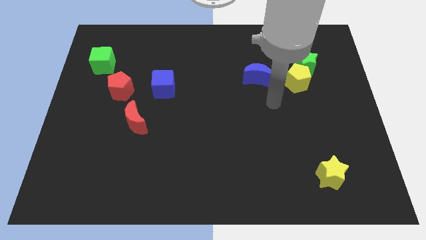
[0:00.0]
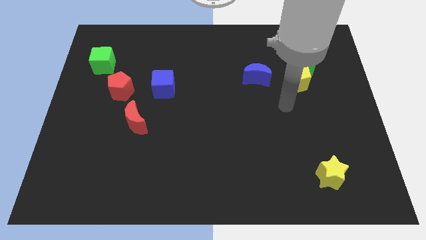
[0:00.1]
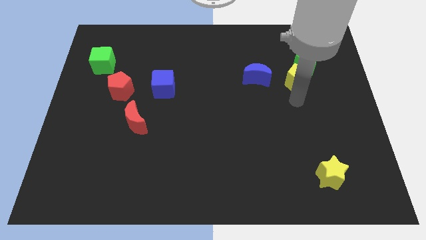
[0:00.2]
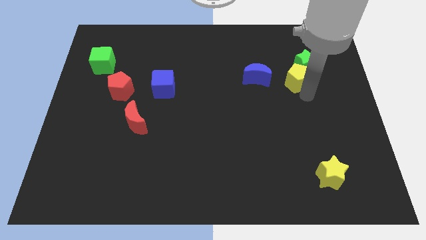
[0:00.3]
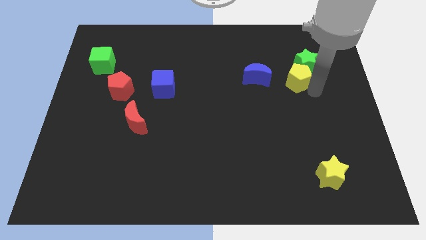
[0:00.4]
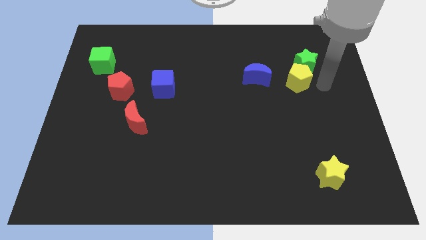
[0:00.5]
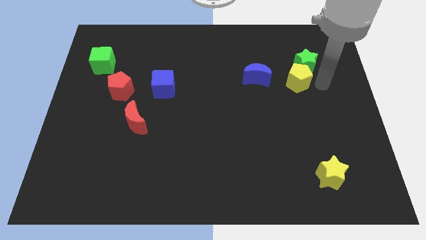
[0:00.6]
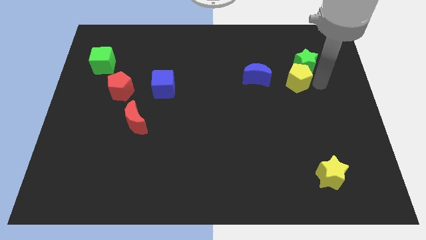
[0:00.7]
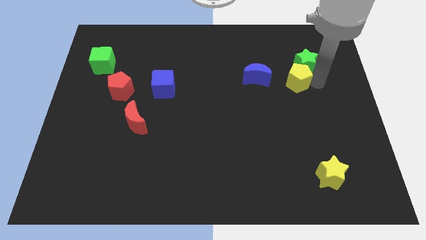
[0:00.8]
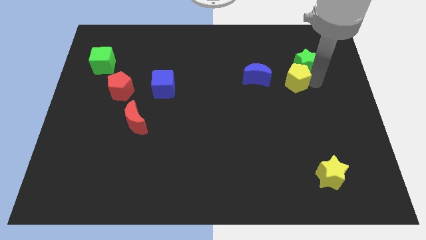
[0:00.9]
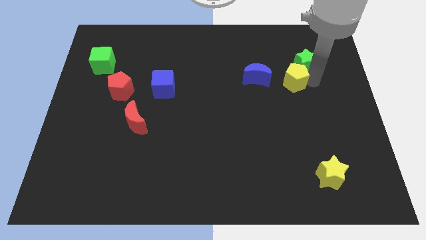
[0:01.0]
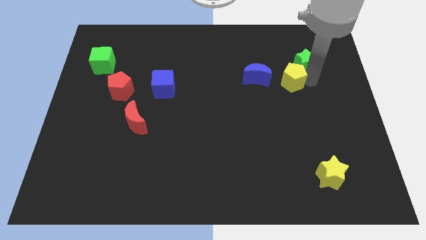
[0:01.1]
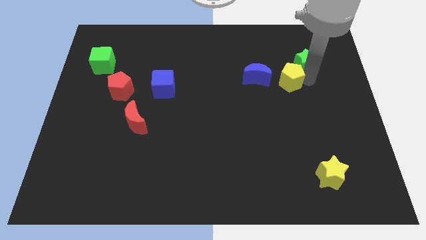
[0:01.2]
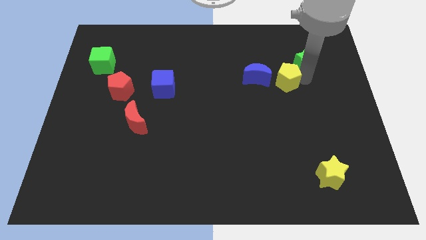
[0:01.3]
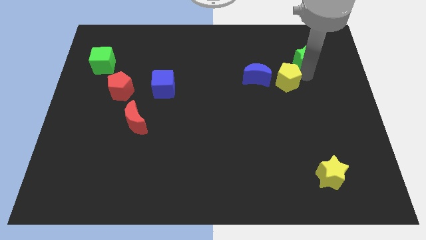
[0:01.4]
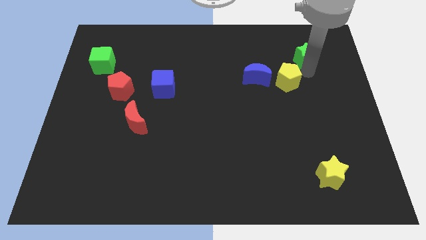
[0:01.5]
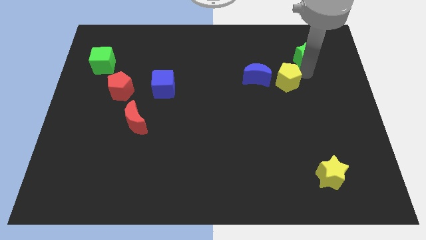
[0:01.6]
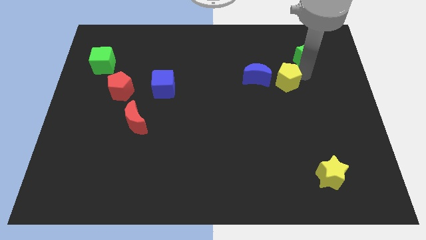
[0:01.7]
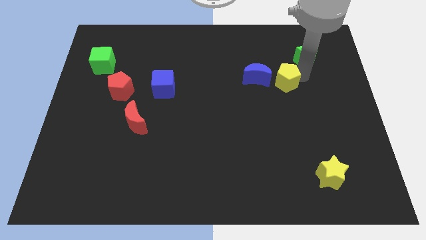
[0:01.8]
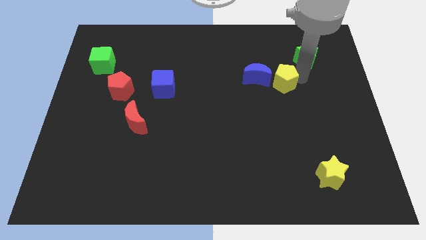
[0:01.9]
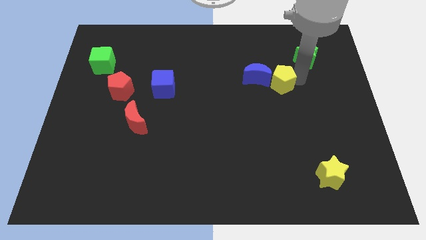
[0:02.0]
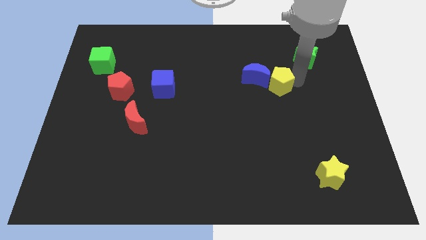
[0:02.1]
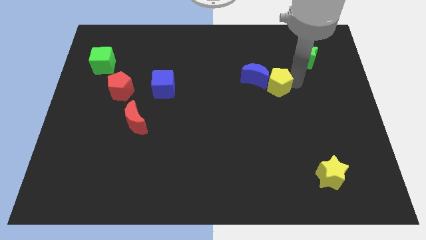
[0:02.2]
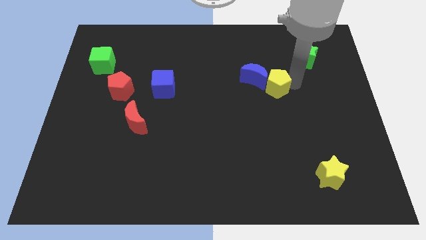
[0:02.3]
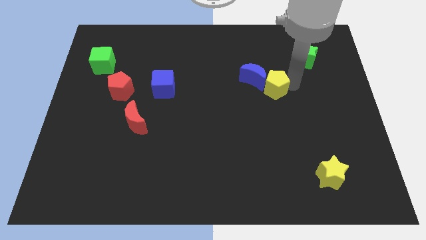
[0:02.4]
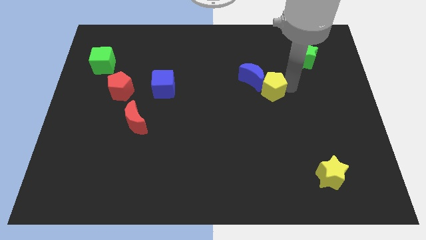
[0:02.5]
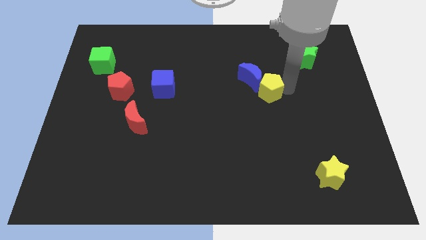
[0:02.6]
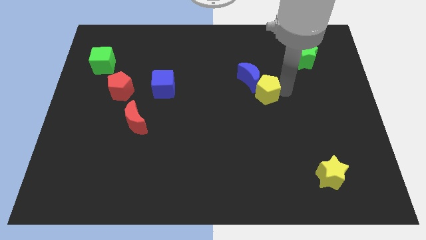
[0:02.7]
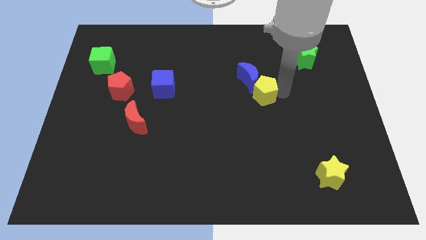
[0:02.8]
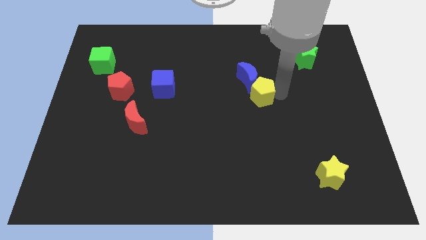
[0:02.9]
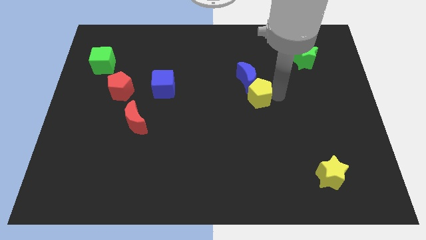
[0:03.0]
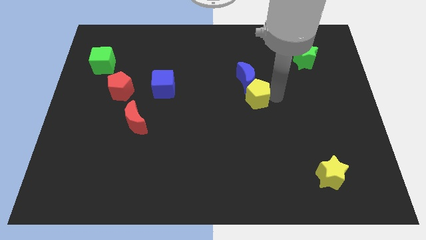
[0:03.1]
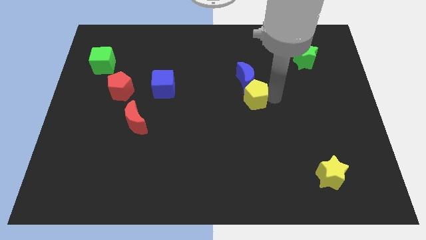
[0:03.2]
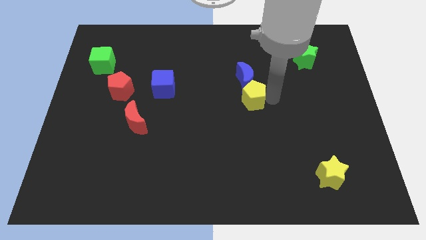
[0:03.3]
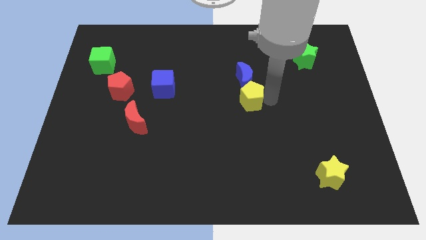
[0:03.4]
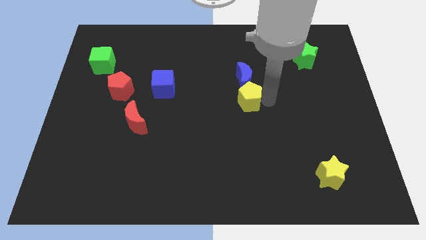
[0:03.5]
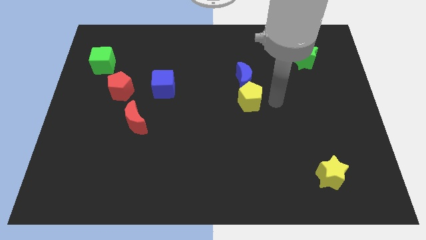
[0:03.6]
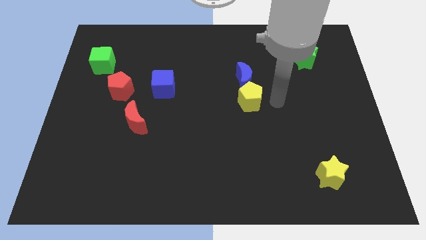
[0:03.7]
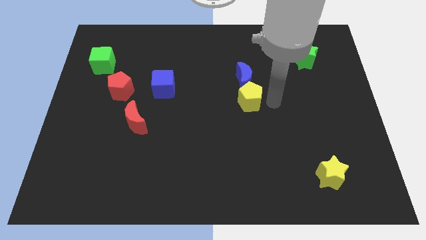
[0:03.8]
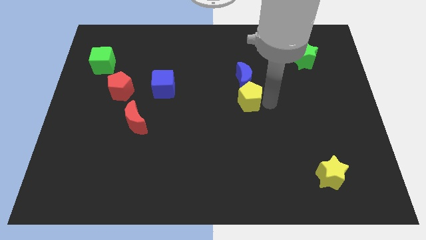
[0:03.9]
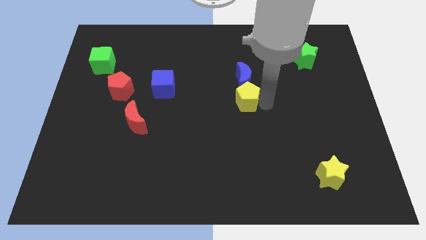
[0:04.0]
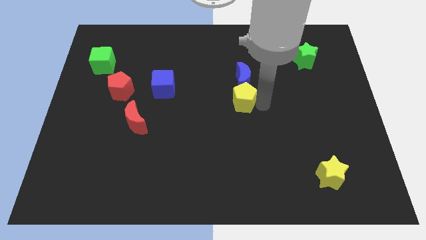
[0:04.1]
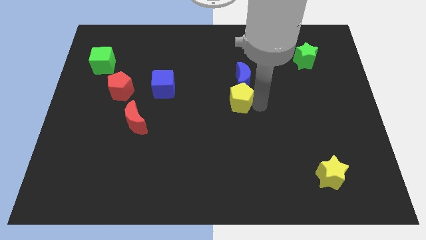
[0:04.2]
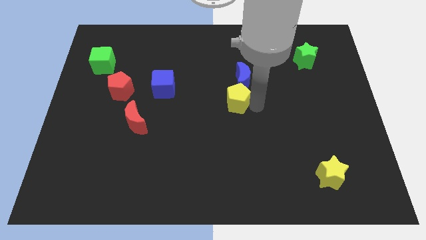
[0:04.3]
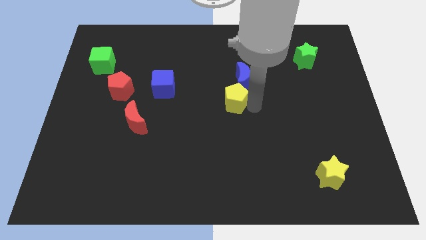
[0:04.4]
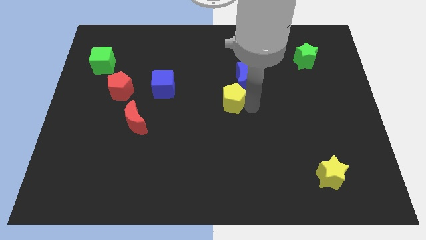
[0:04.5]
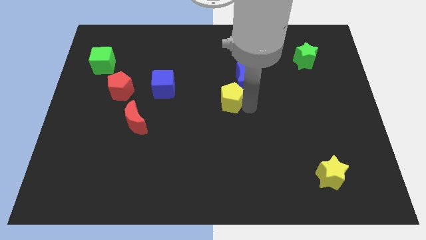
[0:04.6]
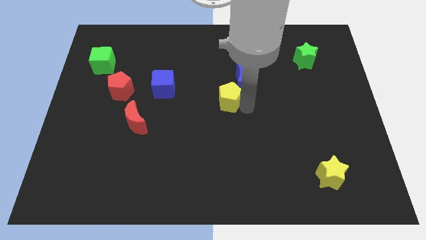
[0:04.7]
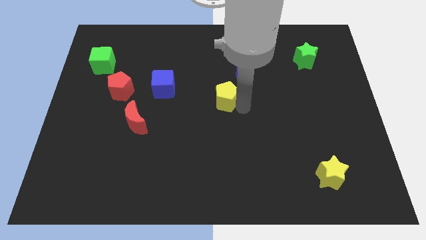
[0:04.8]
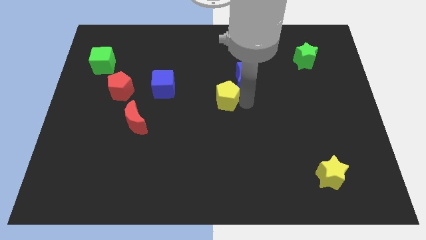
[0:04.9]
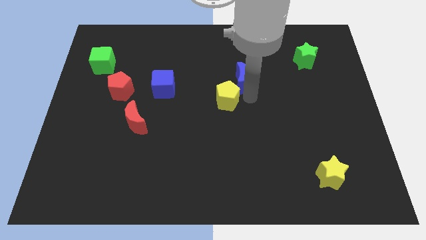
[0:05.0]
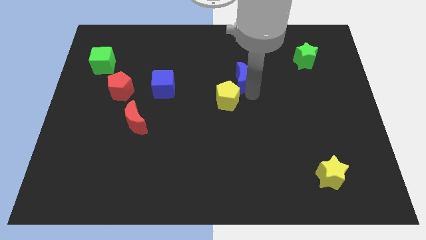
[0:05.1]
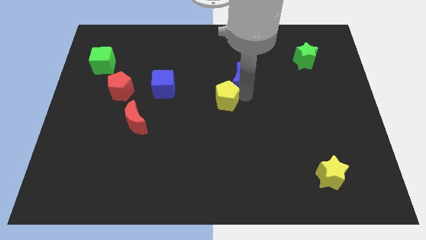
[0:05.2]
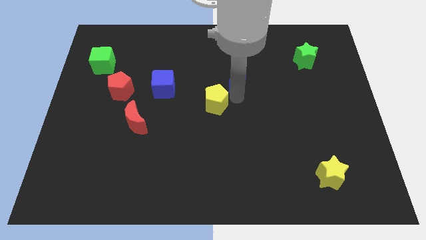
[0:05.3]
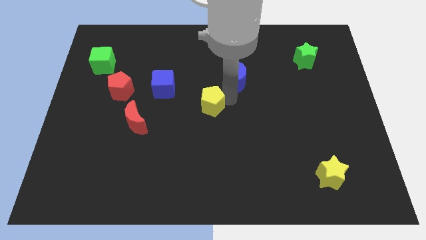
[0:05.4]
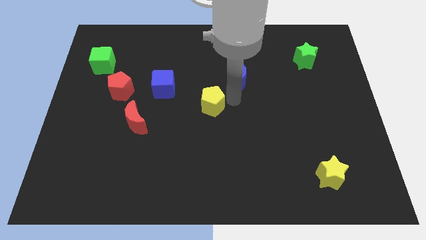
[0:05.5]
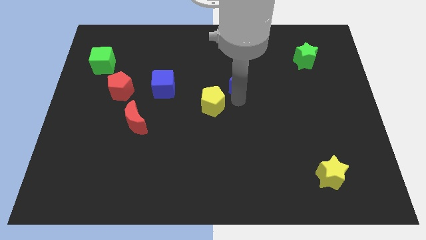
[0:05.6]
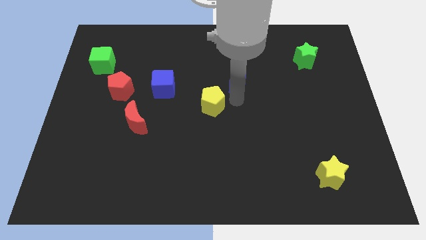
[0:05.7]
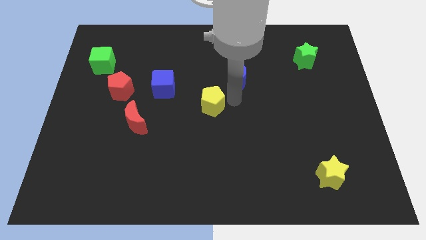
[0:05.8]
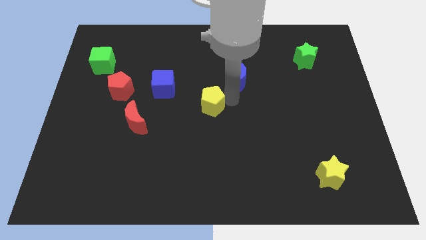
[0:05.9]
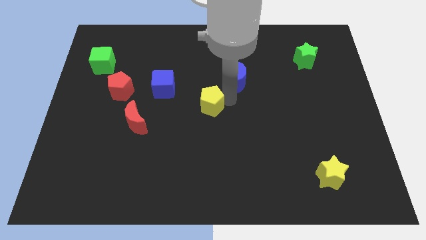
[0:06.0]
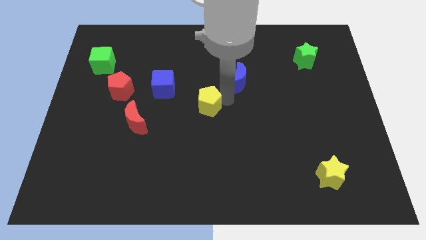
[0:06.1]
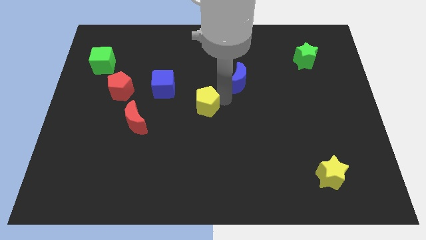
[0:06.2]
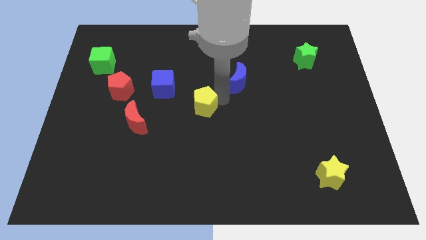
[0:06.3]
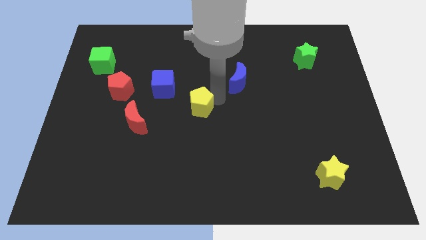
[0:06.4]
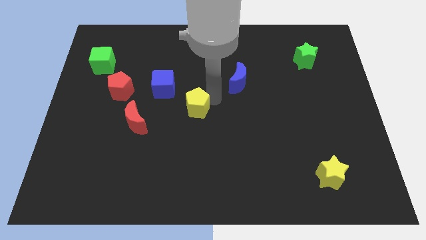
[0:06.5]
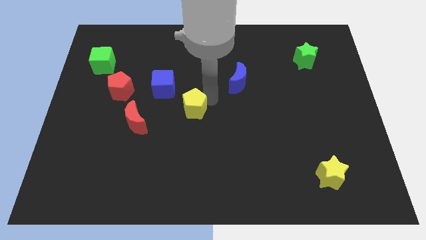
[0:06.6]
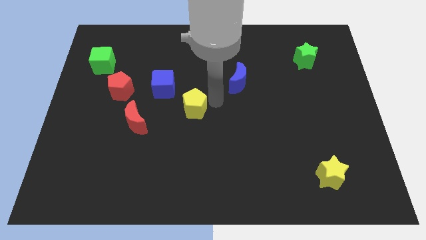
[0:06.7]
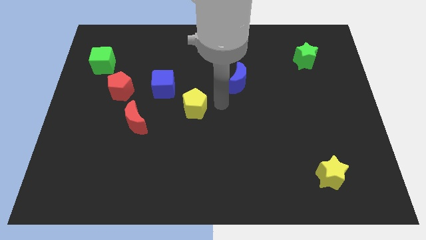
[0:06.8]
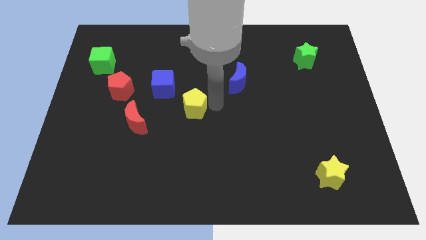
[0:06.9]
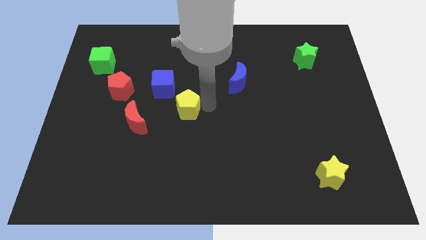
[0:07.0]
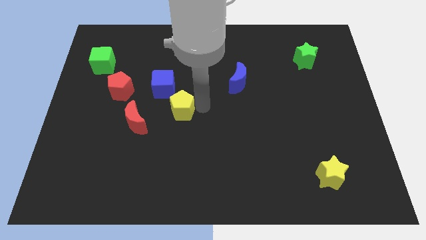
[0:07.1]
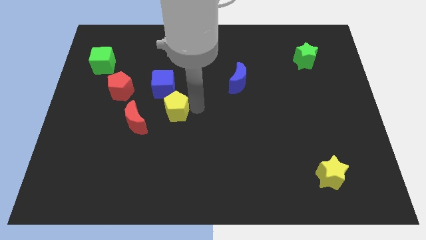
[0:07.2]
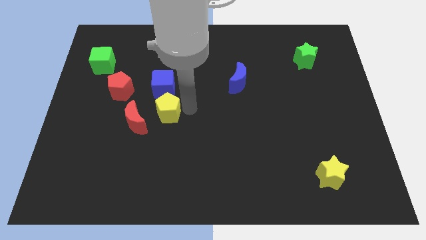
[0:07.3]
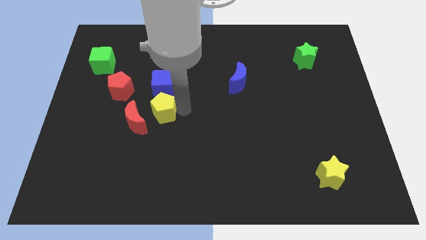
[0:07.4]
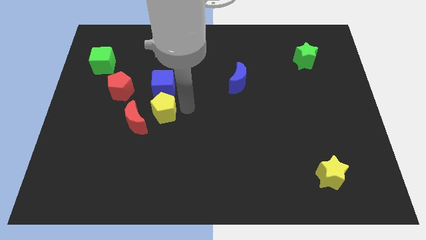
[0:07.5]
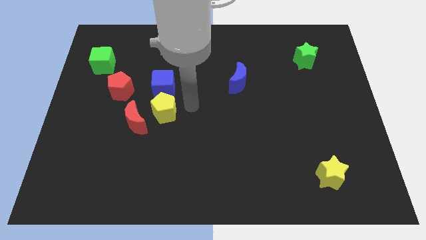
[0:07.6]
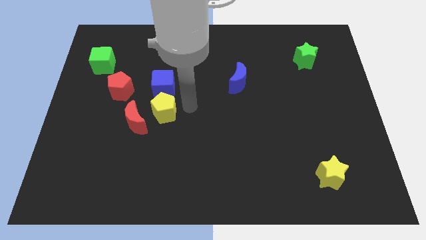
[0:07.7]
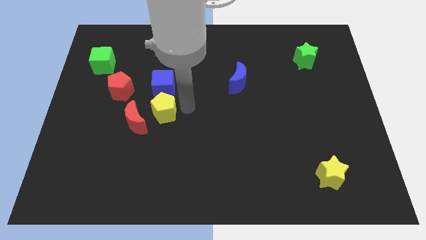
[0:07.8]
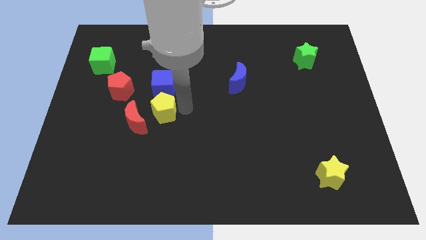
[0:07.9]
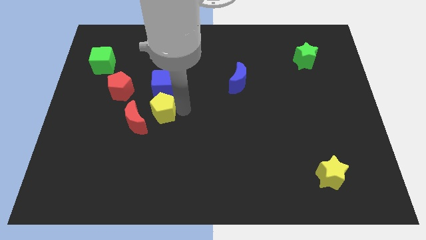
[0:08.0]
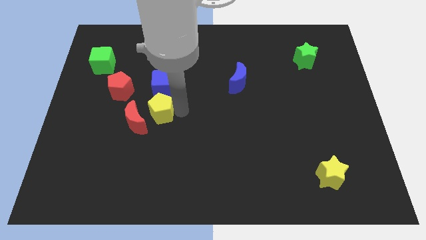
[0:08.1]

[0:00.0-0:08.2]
move the yellow pentagon towards the red moon
